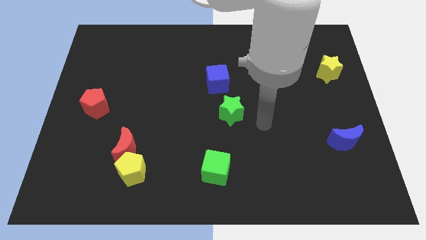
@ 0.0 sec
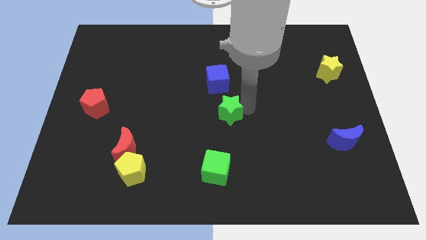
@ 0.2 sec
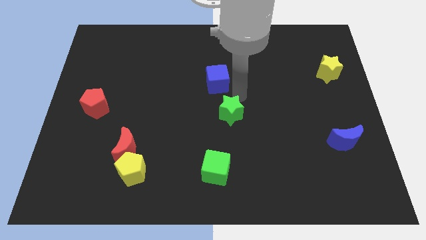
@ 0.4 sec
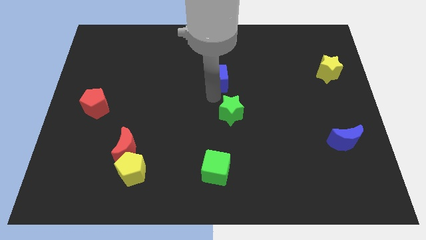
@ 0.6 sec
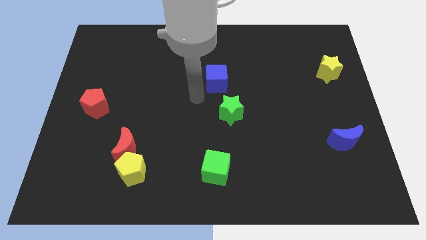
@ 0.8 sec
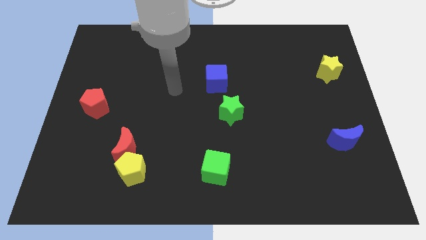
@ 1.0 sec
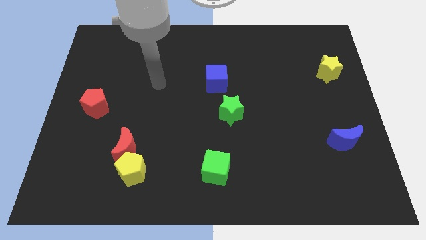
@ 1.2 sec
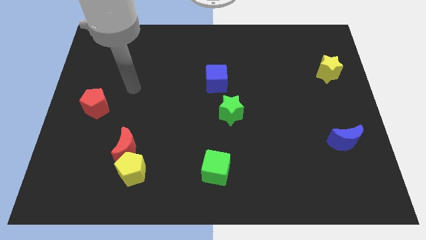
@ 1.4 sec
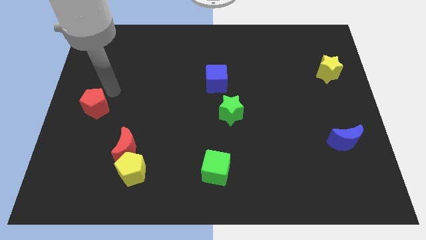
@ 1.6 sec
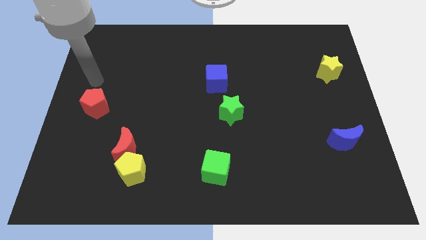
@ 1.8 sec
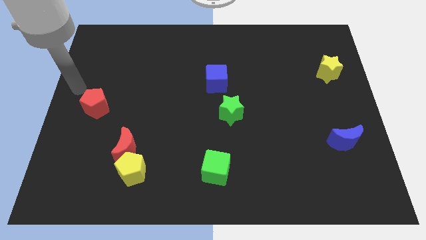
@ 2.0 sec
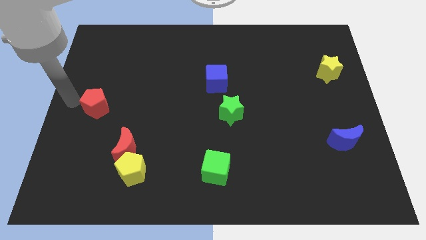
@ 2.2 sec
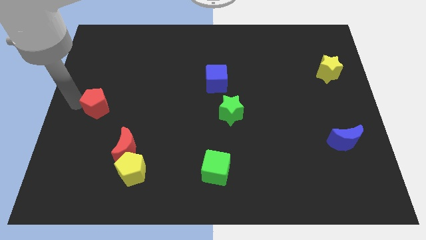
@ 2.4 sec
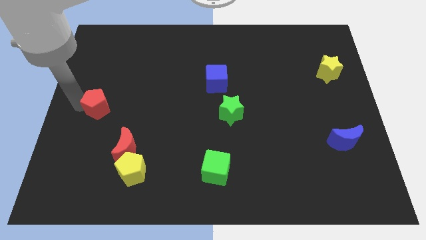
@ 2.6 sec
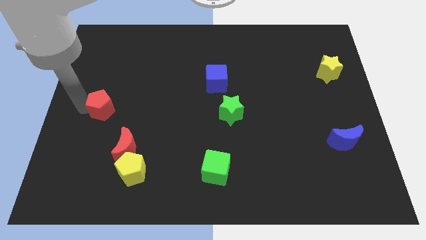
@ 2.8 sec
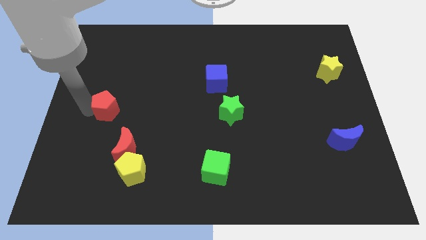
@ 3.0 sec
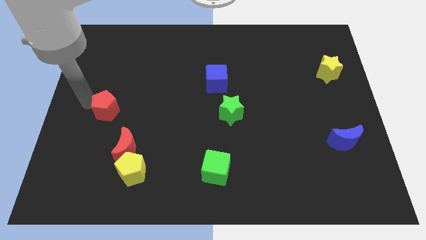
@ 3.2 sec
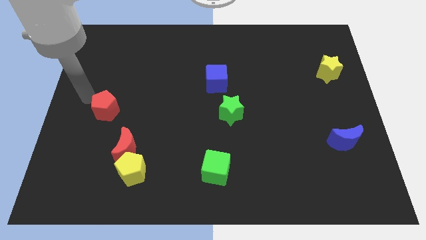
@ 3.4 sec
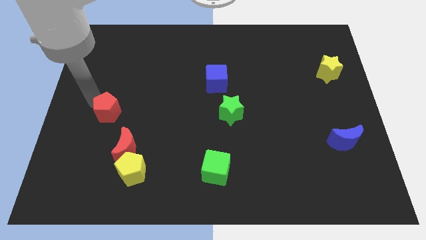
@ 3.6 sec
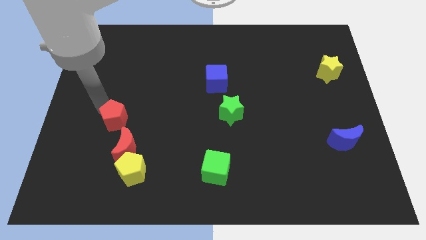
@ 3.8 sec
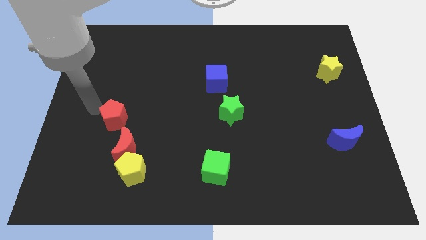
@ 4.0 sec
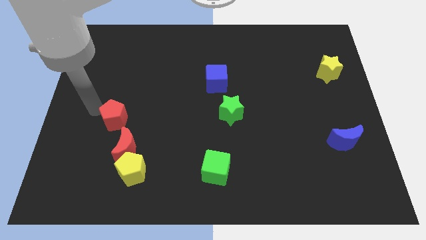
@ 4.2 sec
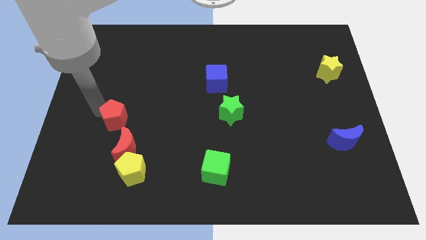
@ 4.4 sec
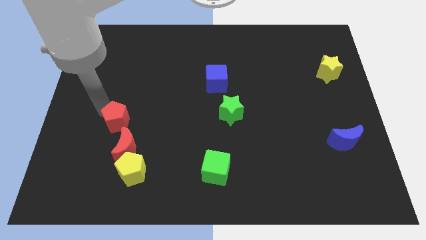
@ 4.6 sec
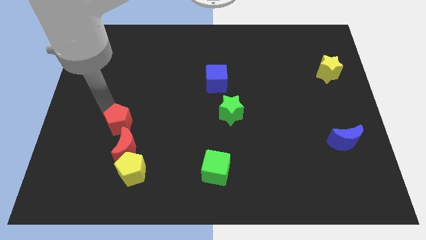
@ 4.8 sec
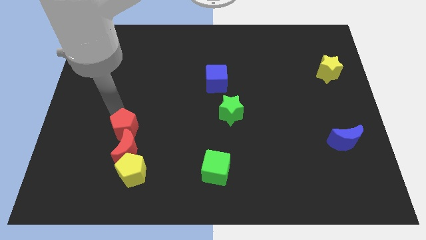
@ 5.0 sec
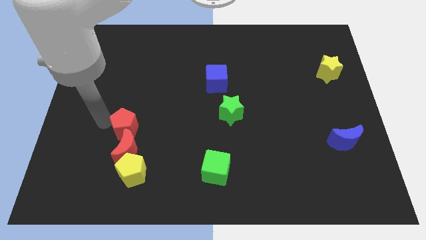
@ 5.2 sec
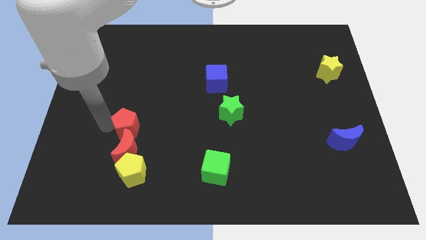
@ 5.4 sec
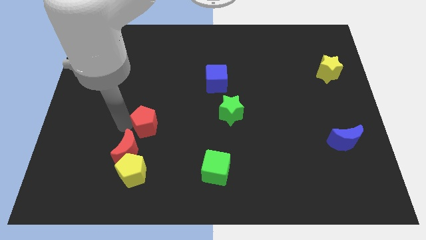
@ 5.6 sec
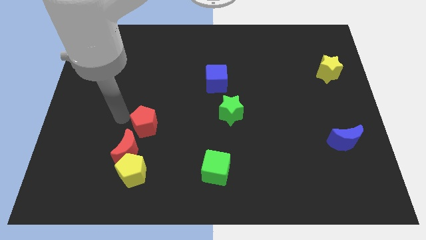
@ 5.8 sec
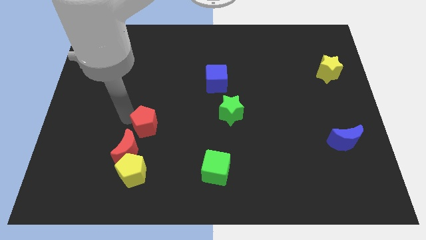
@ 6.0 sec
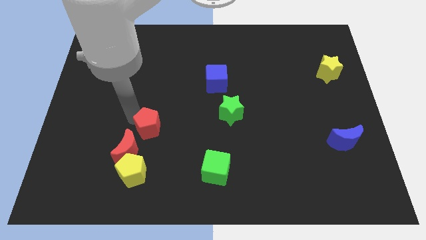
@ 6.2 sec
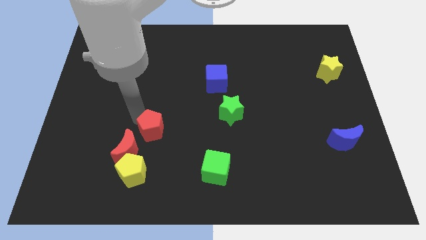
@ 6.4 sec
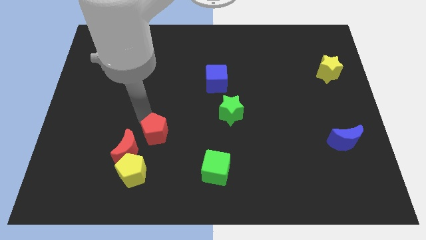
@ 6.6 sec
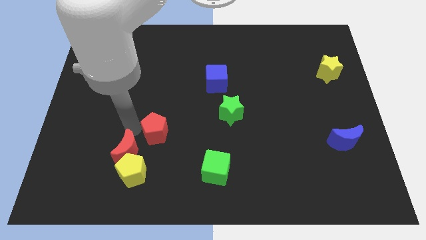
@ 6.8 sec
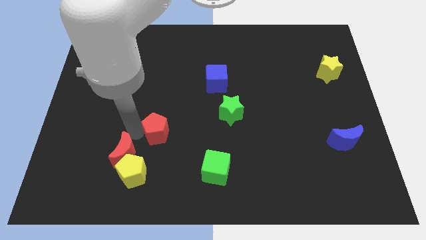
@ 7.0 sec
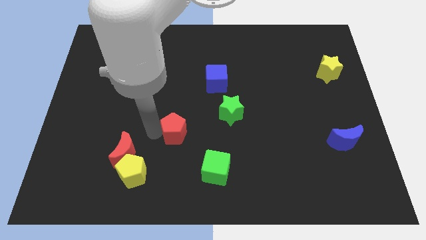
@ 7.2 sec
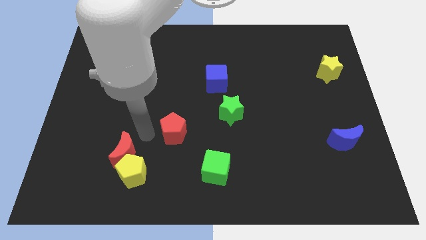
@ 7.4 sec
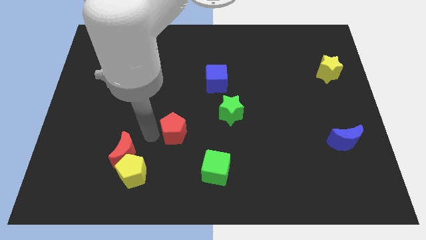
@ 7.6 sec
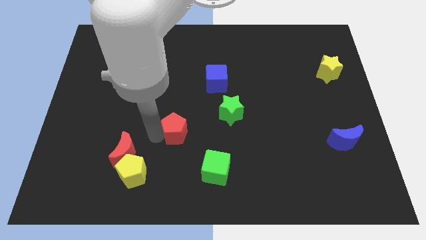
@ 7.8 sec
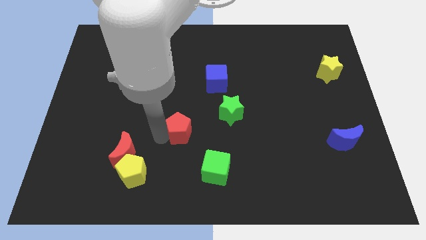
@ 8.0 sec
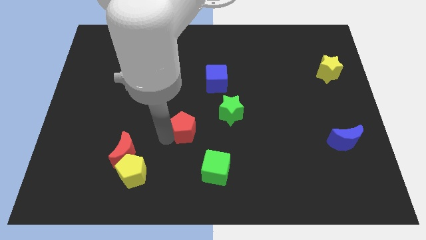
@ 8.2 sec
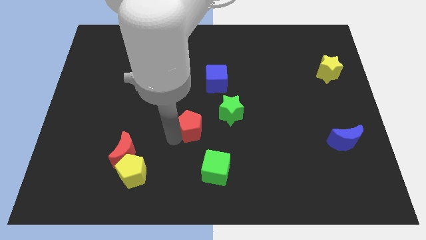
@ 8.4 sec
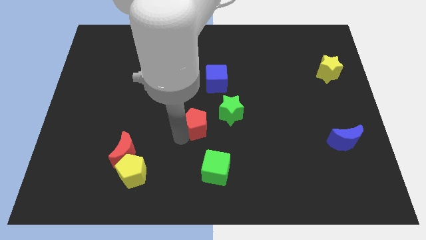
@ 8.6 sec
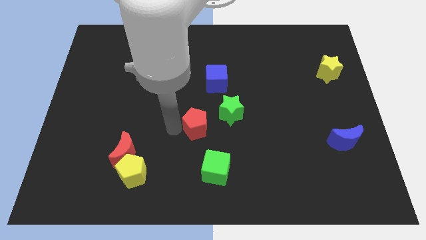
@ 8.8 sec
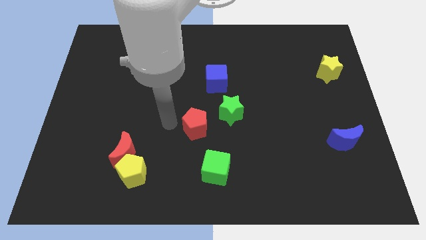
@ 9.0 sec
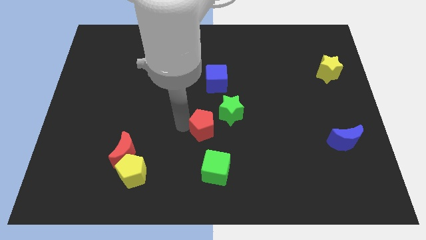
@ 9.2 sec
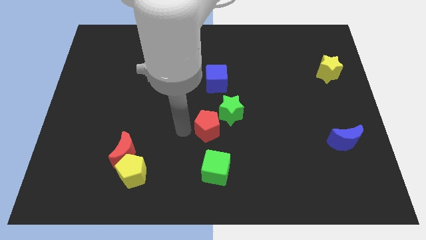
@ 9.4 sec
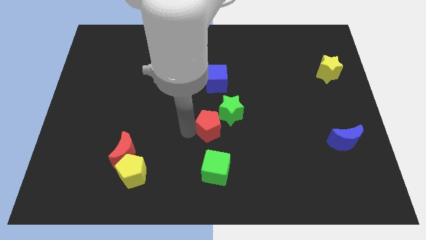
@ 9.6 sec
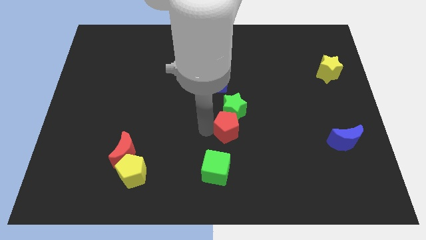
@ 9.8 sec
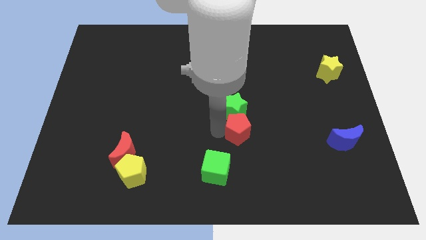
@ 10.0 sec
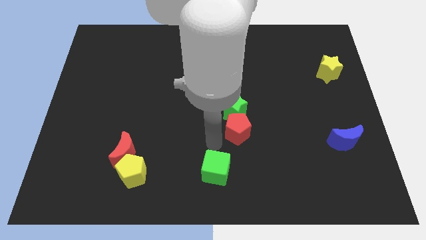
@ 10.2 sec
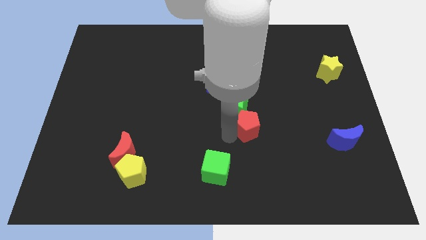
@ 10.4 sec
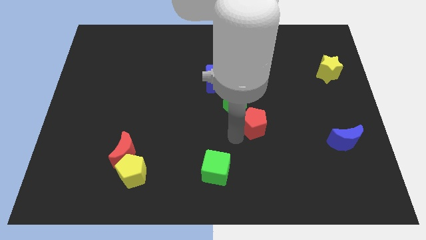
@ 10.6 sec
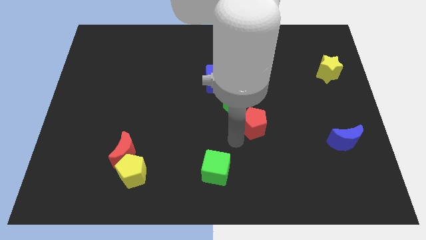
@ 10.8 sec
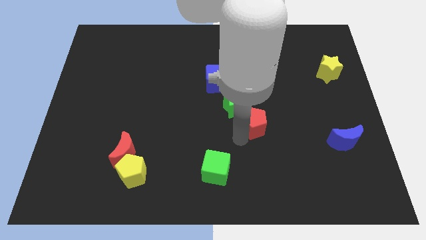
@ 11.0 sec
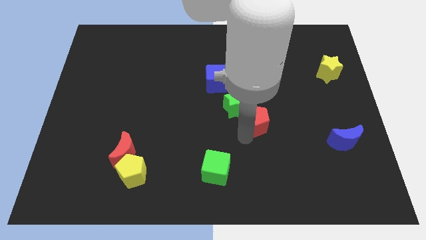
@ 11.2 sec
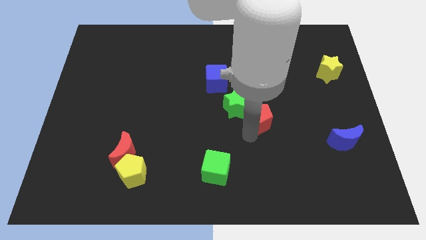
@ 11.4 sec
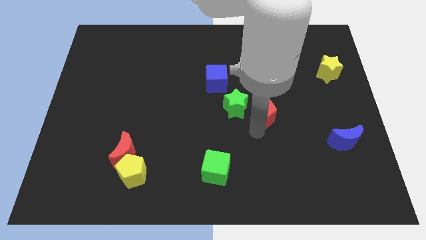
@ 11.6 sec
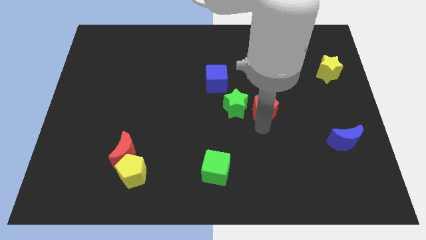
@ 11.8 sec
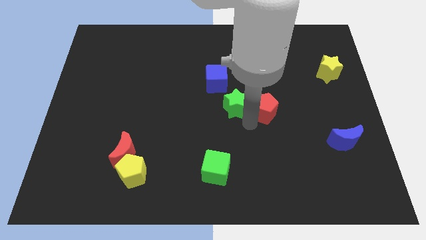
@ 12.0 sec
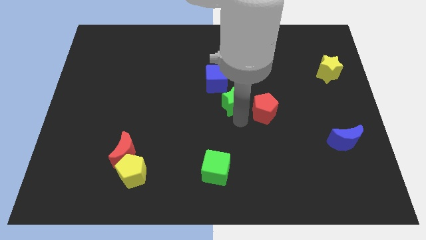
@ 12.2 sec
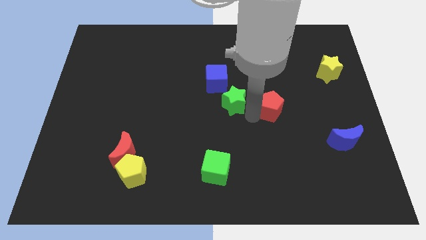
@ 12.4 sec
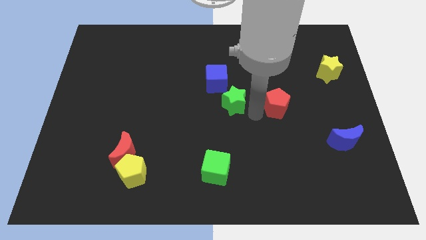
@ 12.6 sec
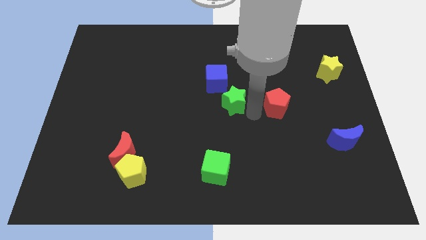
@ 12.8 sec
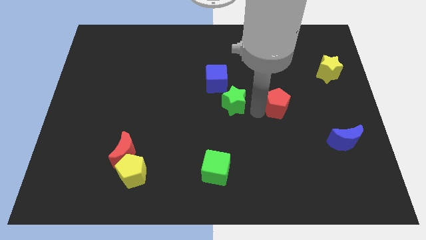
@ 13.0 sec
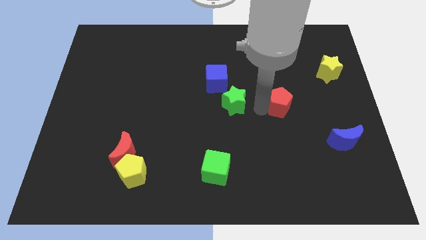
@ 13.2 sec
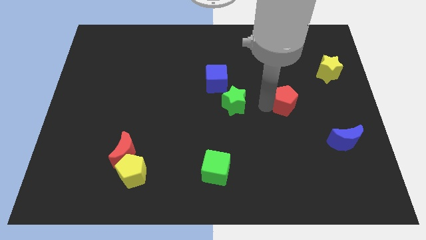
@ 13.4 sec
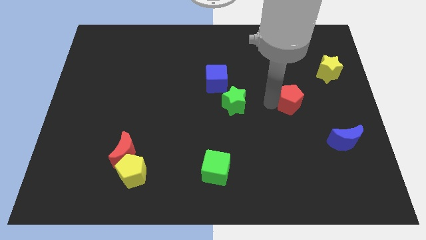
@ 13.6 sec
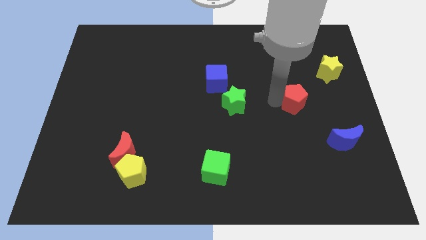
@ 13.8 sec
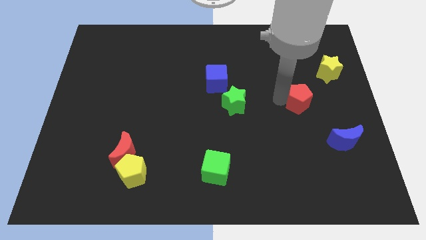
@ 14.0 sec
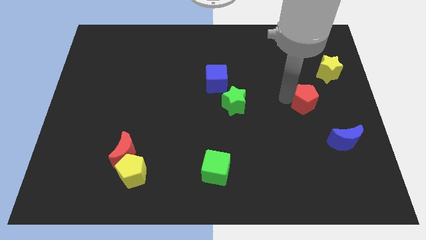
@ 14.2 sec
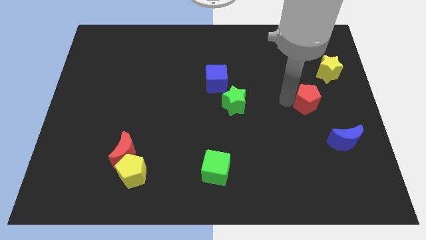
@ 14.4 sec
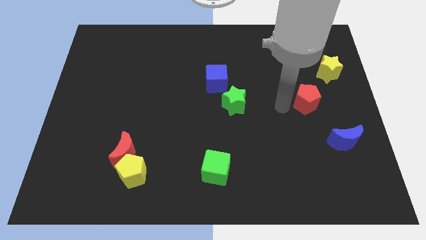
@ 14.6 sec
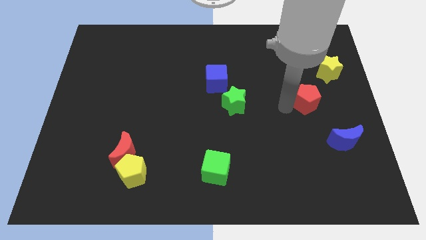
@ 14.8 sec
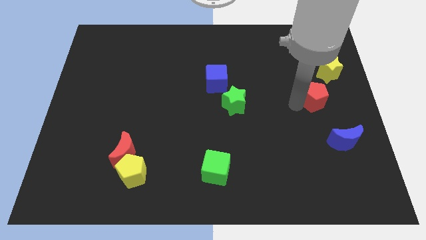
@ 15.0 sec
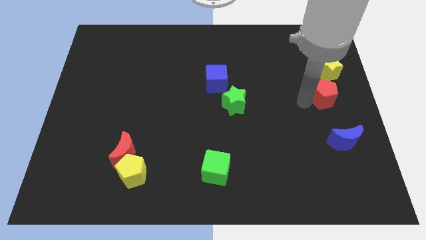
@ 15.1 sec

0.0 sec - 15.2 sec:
move the red pentagon to the right side of the board
